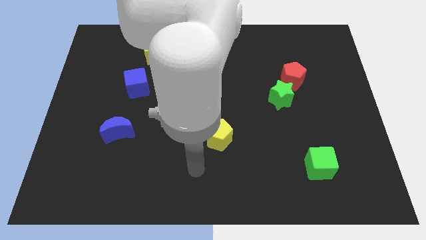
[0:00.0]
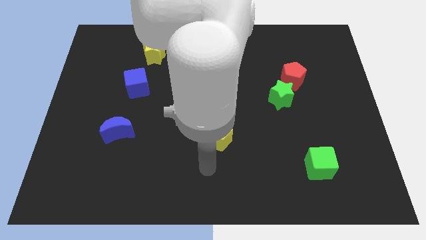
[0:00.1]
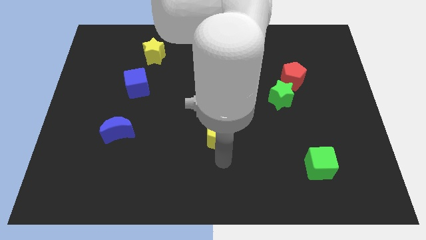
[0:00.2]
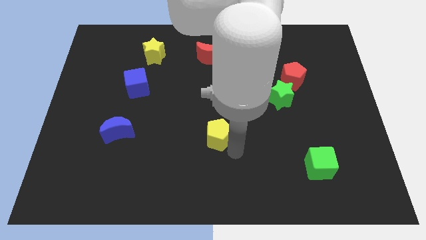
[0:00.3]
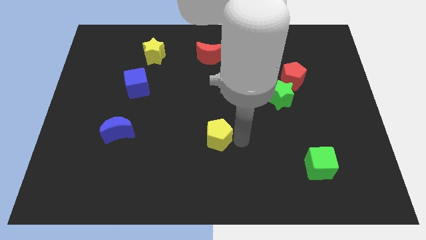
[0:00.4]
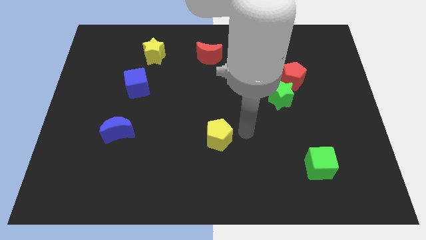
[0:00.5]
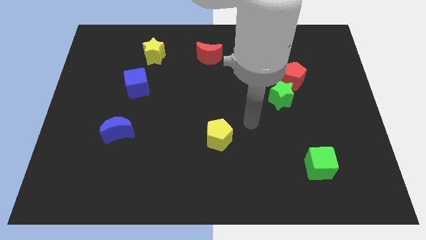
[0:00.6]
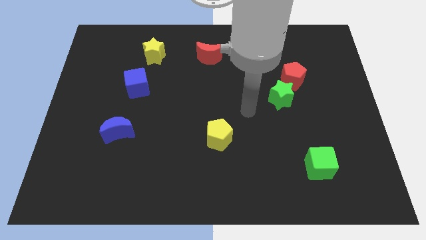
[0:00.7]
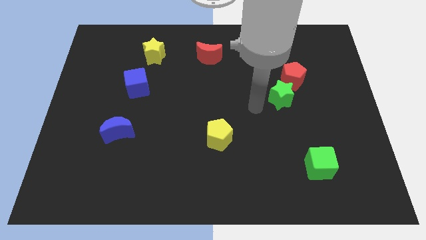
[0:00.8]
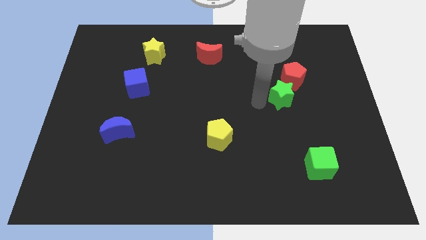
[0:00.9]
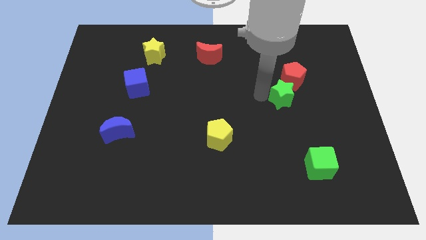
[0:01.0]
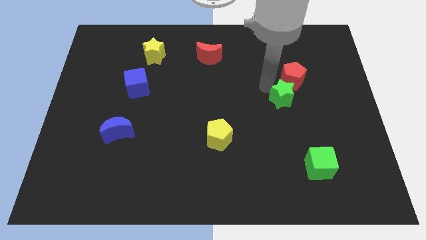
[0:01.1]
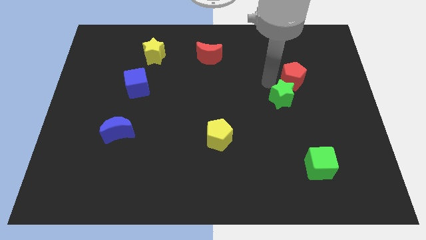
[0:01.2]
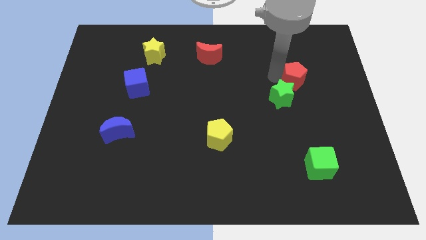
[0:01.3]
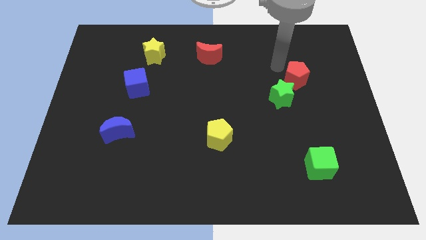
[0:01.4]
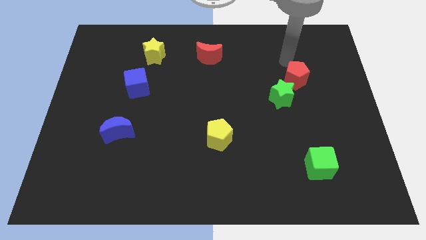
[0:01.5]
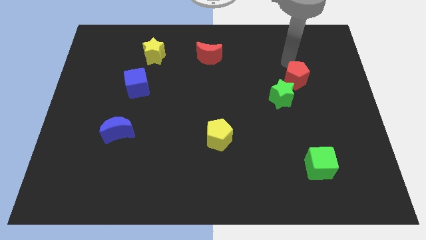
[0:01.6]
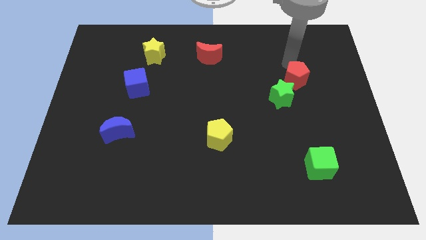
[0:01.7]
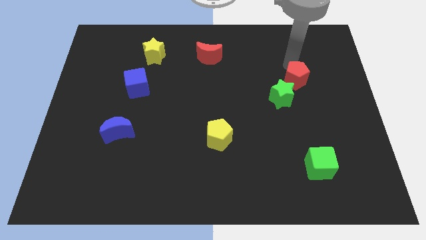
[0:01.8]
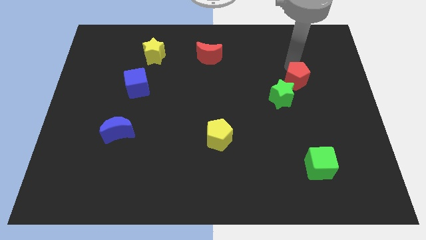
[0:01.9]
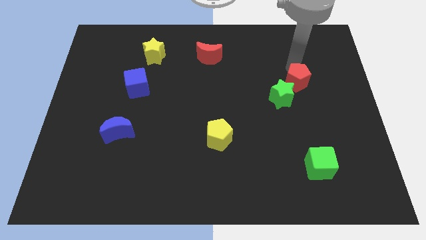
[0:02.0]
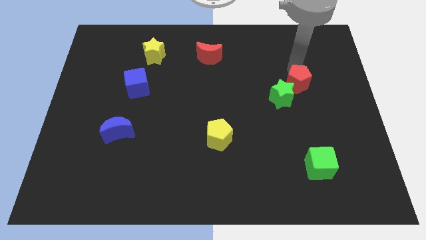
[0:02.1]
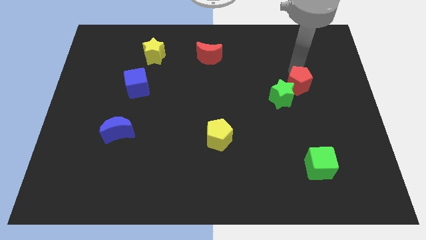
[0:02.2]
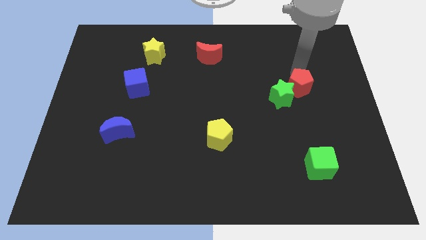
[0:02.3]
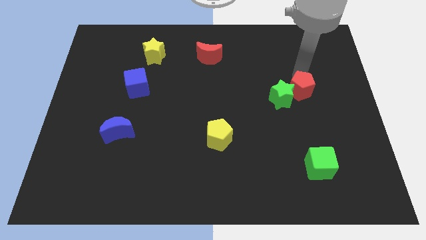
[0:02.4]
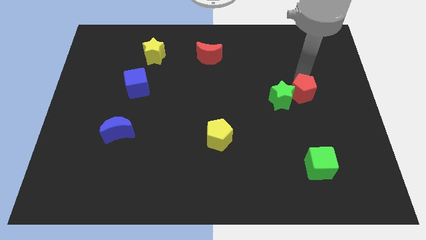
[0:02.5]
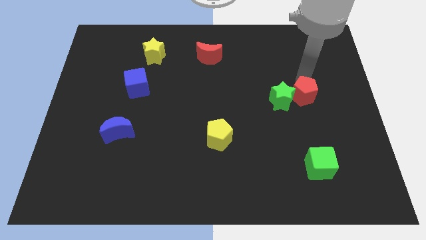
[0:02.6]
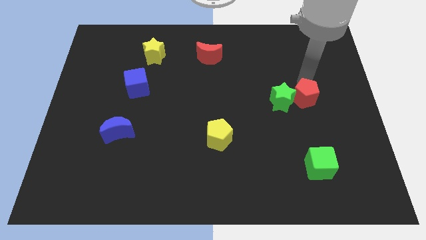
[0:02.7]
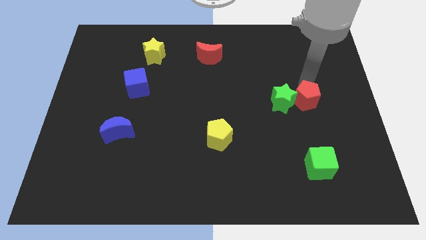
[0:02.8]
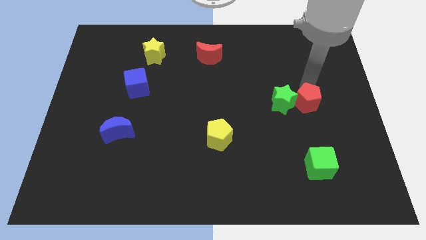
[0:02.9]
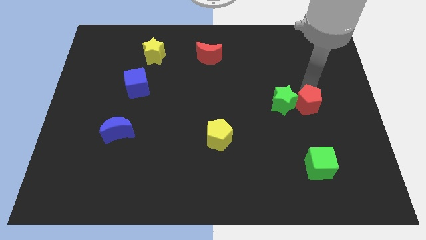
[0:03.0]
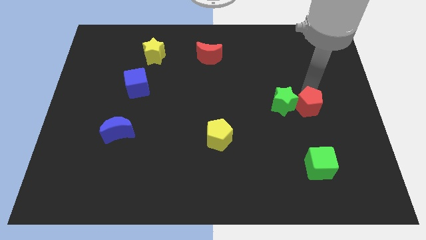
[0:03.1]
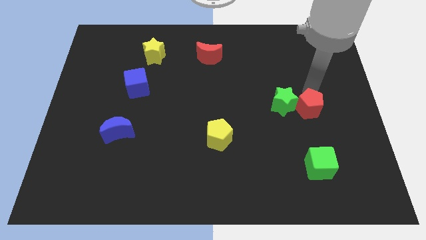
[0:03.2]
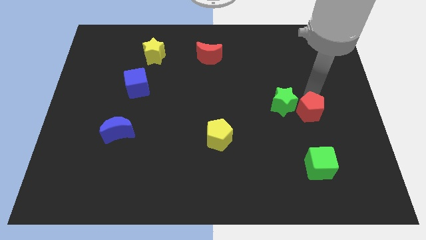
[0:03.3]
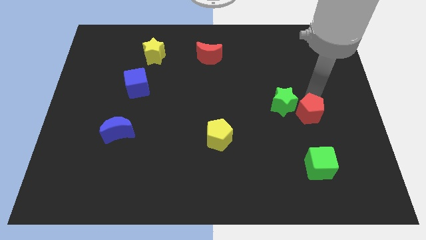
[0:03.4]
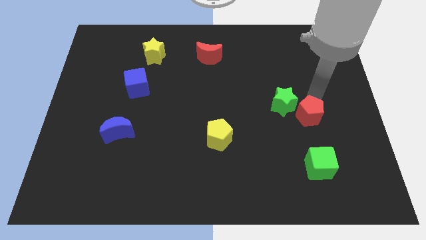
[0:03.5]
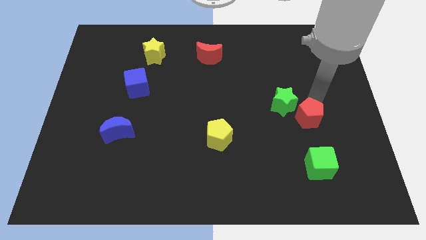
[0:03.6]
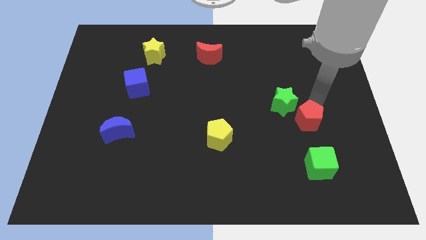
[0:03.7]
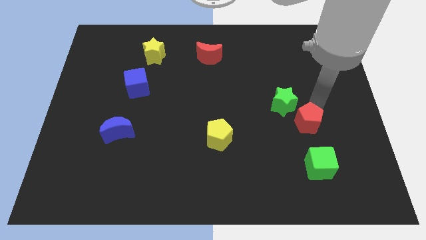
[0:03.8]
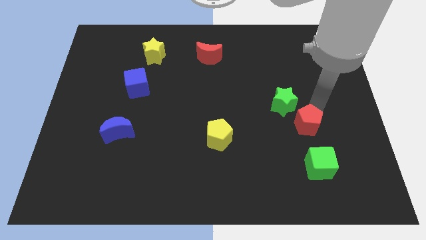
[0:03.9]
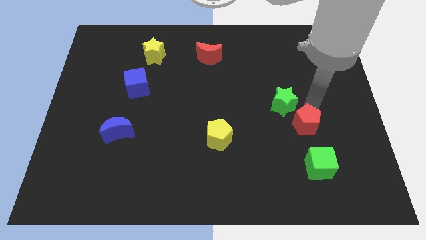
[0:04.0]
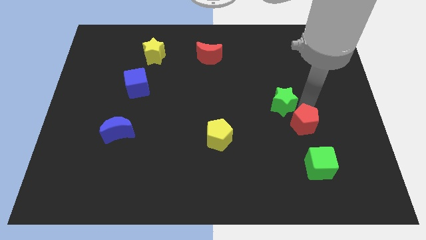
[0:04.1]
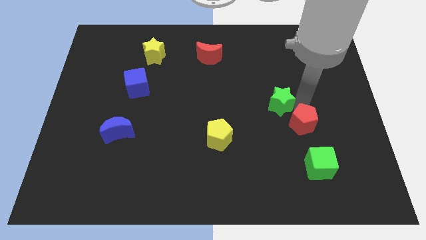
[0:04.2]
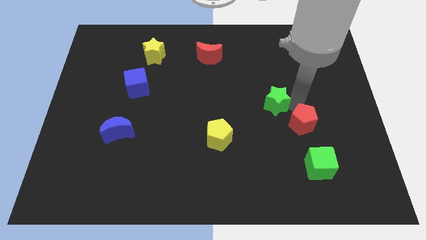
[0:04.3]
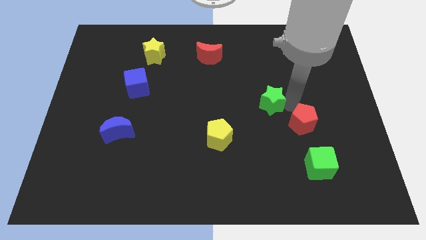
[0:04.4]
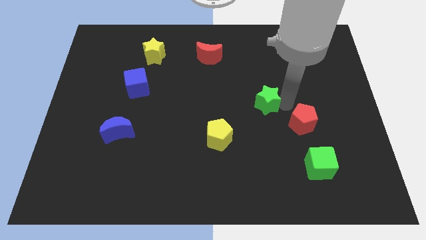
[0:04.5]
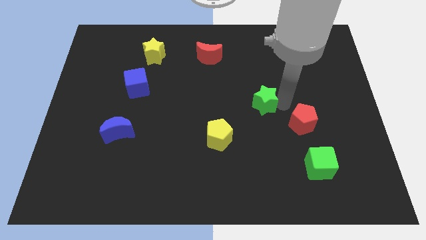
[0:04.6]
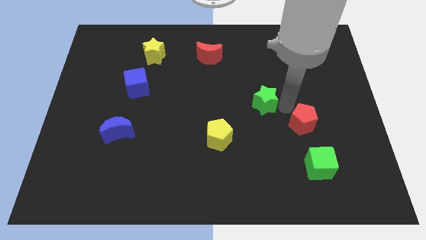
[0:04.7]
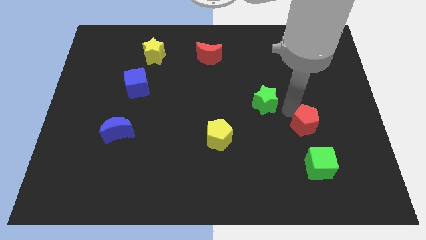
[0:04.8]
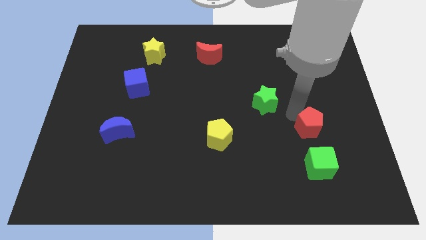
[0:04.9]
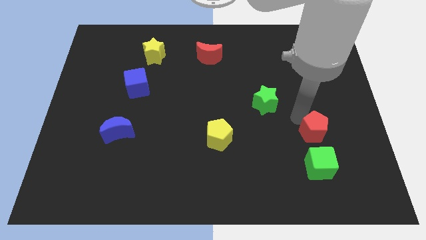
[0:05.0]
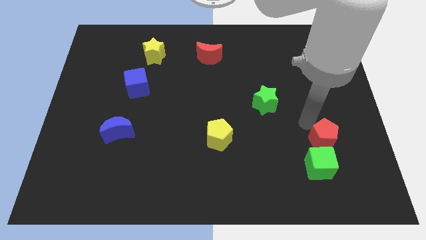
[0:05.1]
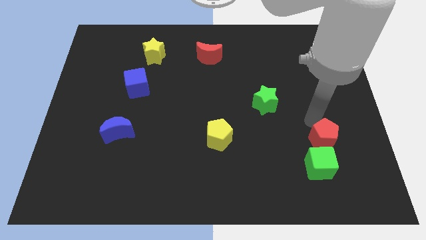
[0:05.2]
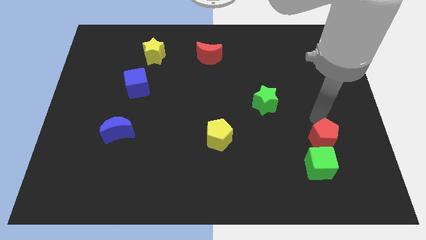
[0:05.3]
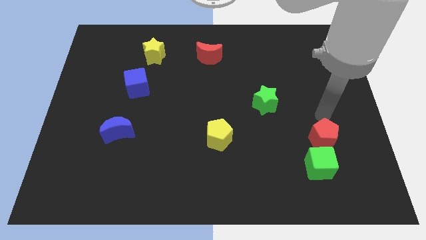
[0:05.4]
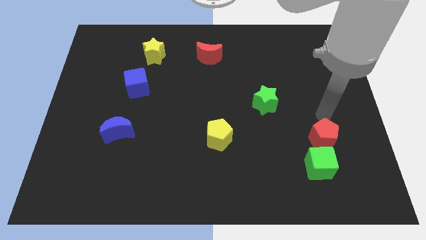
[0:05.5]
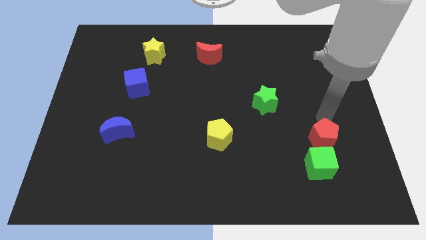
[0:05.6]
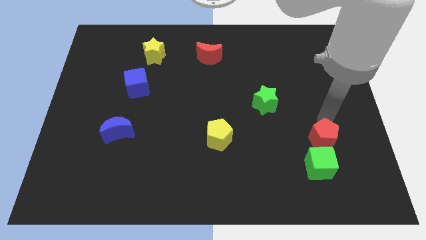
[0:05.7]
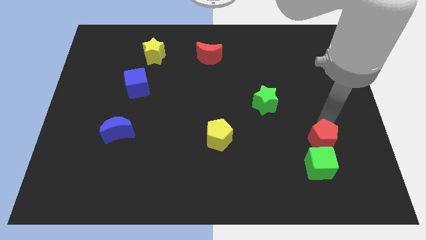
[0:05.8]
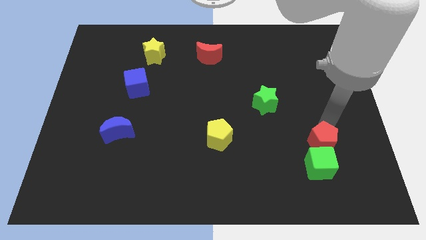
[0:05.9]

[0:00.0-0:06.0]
push the red pentagon towards the green cube
